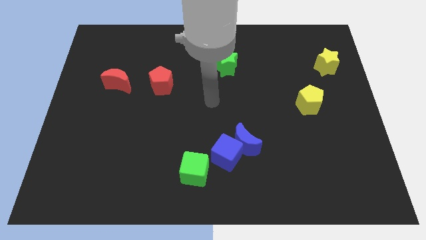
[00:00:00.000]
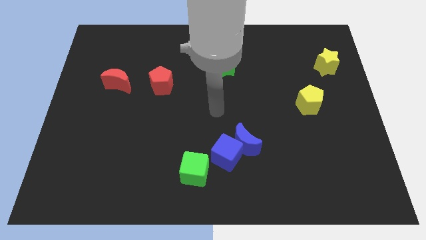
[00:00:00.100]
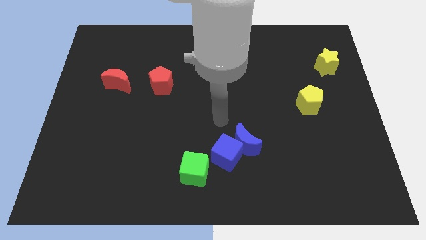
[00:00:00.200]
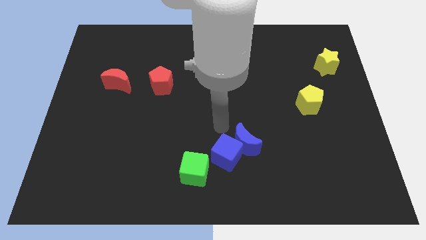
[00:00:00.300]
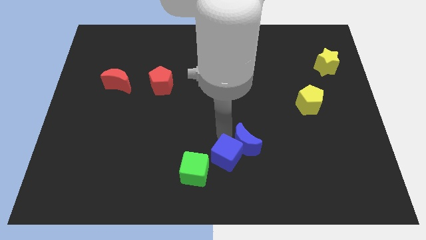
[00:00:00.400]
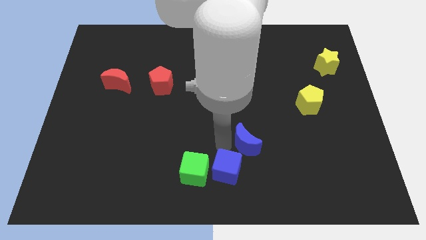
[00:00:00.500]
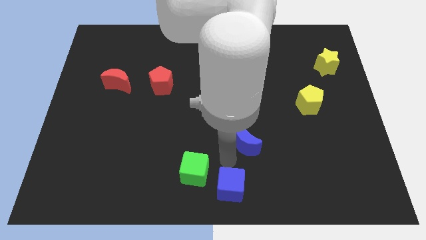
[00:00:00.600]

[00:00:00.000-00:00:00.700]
pull the blue moon apart from the blue cube

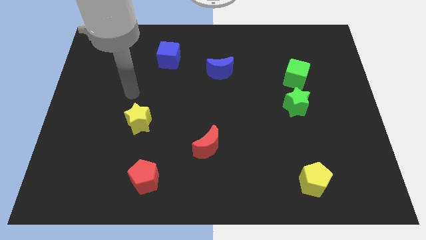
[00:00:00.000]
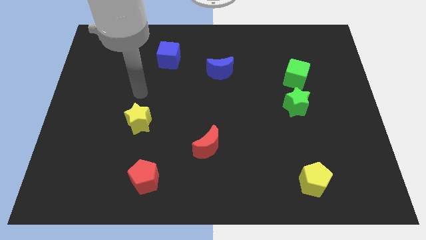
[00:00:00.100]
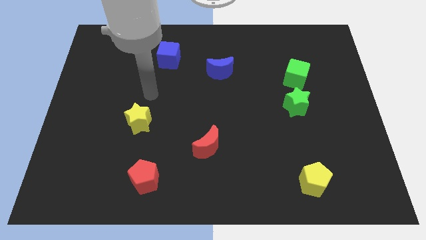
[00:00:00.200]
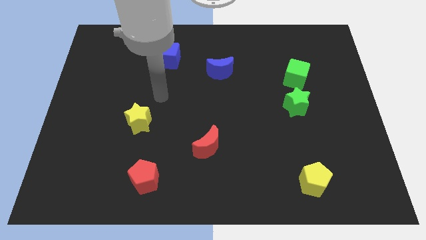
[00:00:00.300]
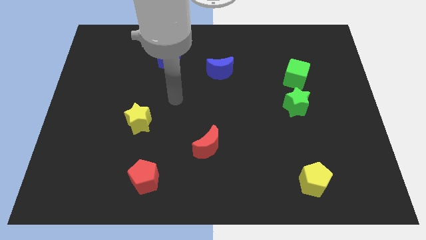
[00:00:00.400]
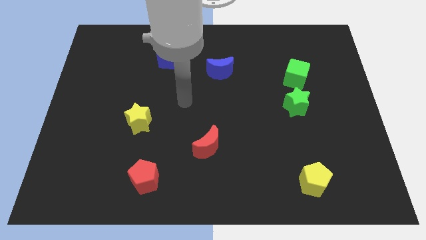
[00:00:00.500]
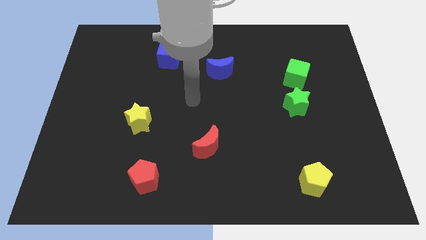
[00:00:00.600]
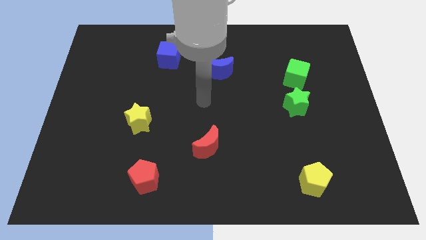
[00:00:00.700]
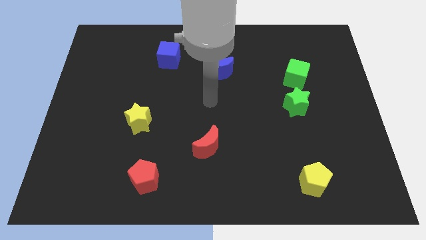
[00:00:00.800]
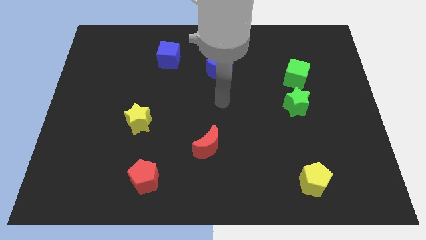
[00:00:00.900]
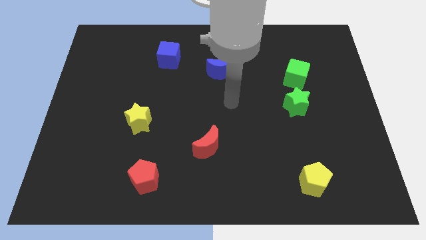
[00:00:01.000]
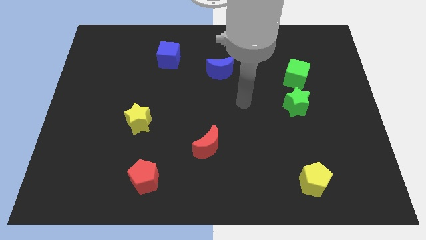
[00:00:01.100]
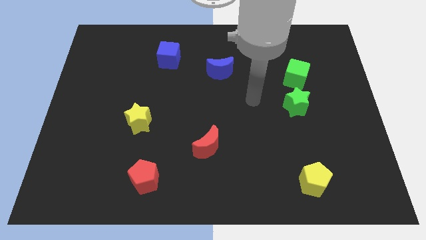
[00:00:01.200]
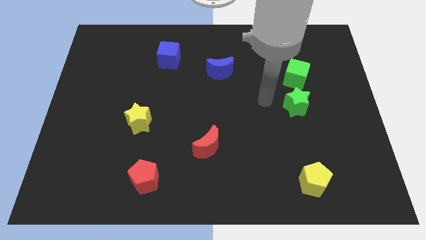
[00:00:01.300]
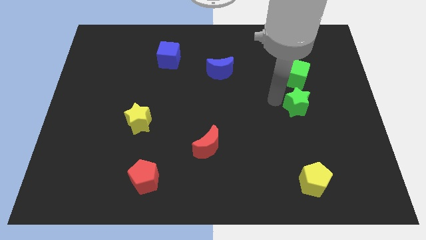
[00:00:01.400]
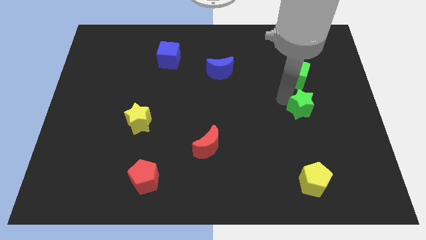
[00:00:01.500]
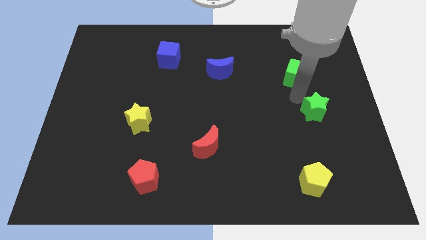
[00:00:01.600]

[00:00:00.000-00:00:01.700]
move the green cube away from the green star

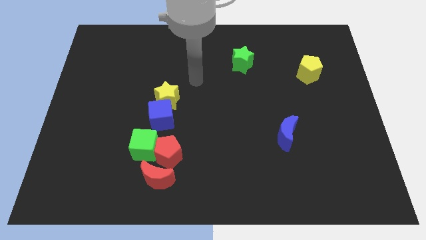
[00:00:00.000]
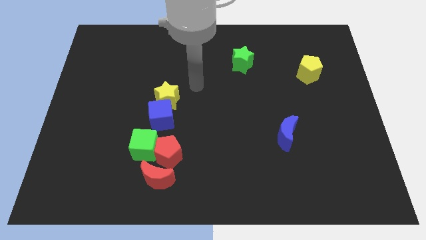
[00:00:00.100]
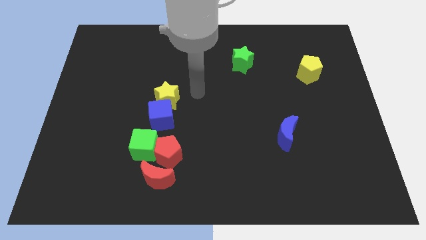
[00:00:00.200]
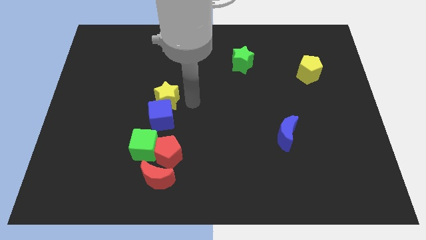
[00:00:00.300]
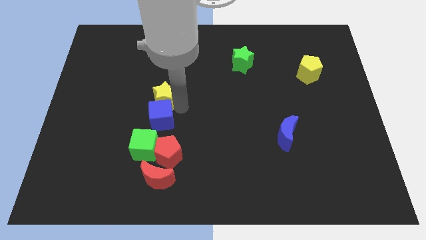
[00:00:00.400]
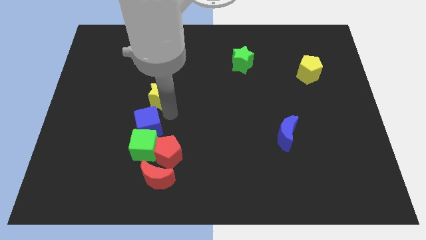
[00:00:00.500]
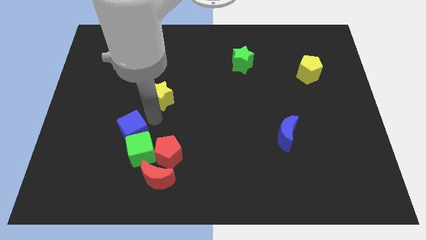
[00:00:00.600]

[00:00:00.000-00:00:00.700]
pull the yellow star apart from the blue cube

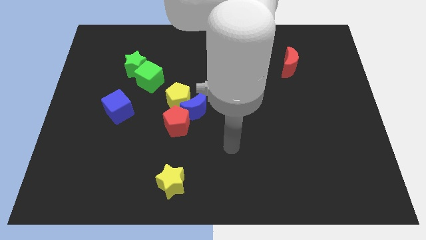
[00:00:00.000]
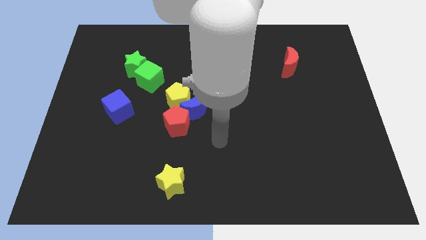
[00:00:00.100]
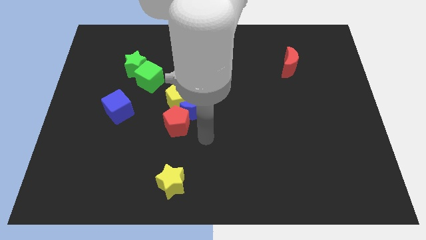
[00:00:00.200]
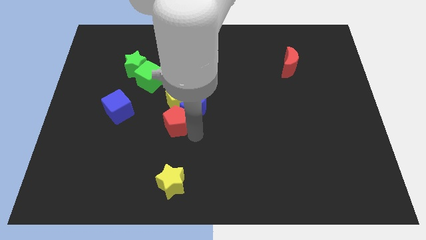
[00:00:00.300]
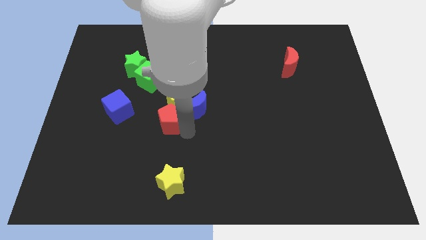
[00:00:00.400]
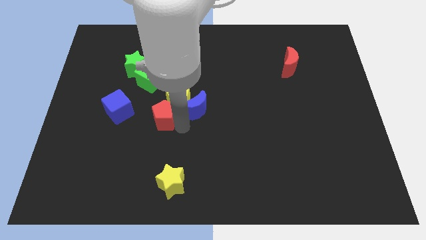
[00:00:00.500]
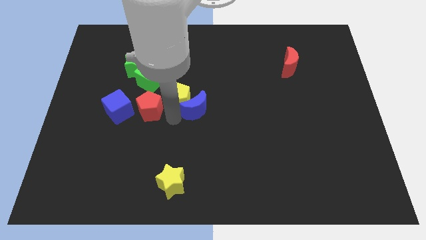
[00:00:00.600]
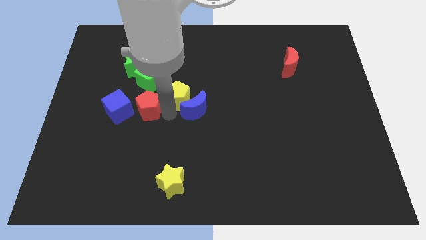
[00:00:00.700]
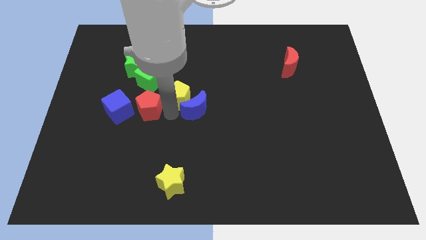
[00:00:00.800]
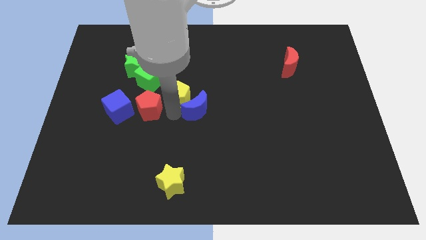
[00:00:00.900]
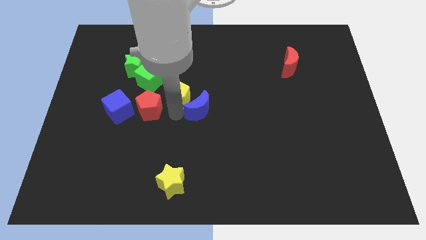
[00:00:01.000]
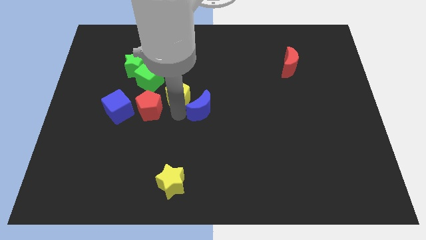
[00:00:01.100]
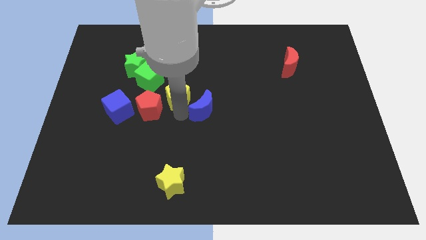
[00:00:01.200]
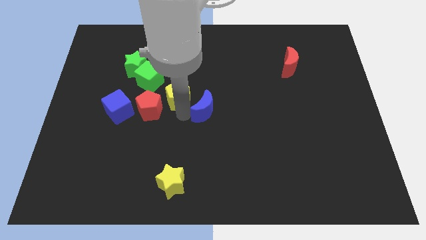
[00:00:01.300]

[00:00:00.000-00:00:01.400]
separate the blue moon from the yellow pentagon and red pentagon

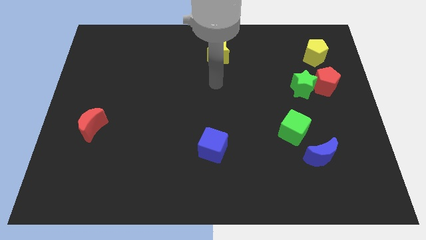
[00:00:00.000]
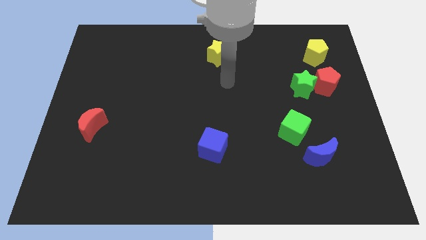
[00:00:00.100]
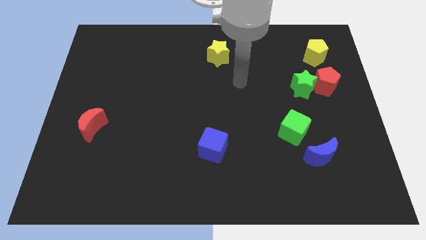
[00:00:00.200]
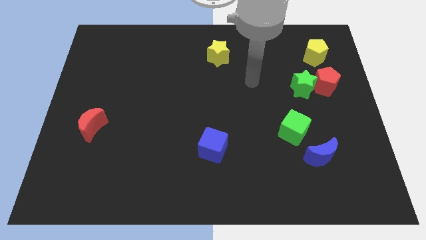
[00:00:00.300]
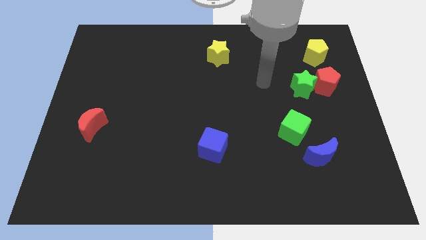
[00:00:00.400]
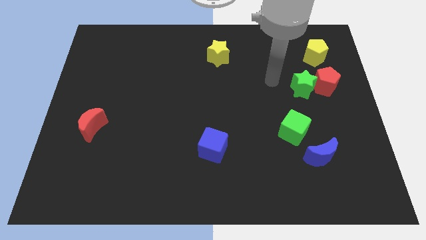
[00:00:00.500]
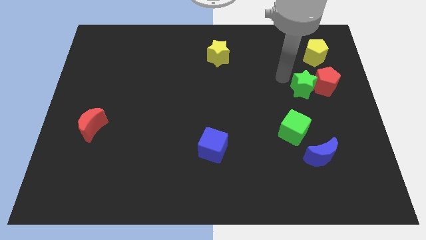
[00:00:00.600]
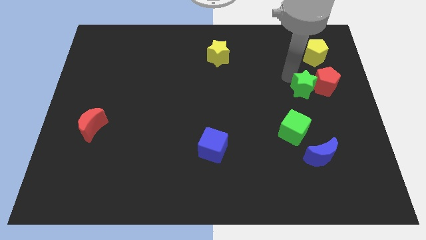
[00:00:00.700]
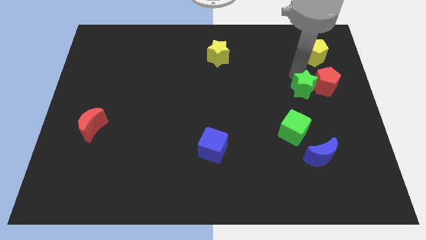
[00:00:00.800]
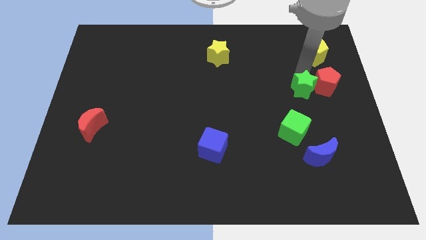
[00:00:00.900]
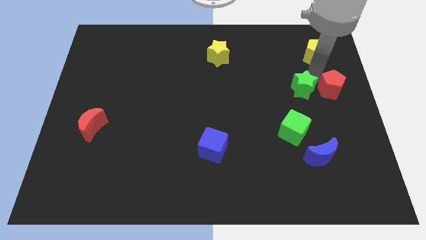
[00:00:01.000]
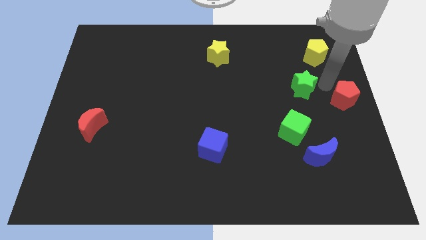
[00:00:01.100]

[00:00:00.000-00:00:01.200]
separate the green star from the red pentagon

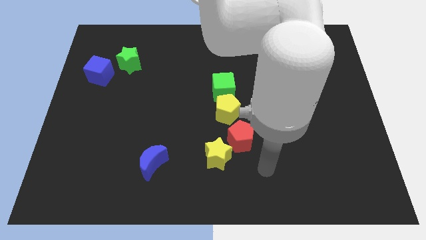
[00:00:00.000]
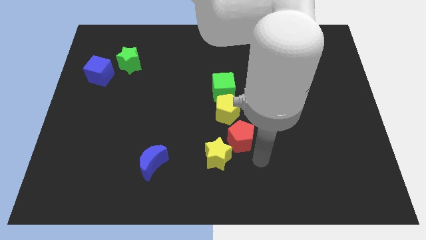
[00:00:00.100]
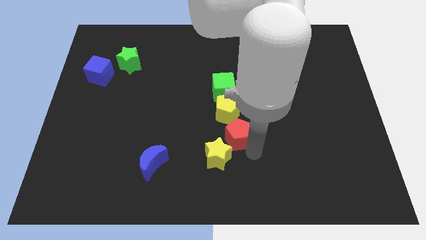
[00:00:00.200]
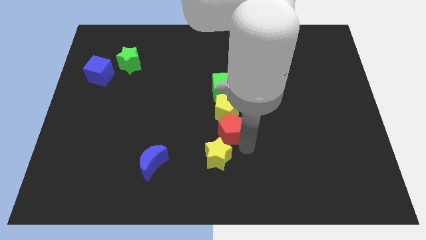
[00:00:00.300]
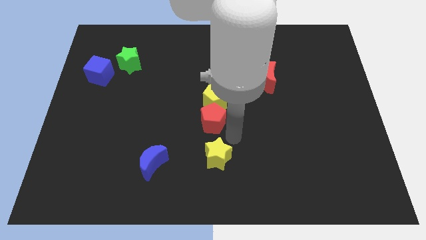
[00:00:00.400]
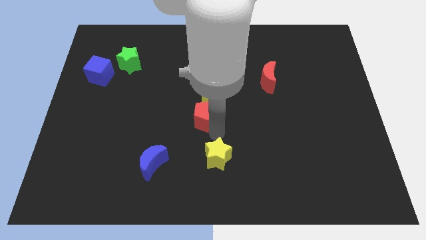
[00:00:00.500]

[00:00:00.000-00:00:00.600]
pull the yellow star apart from the red pentagon

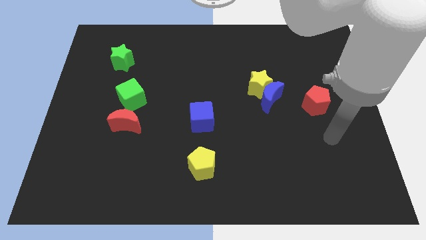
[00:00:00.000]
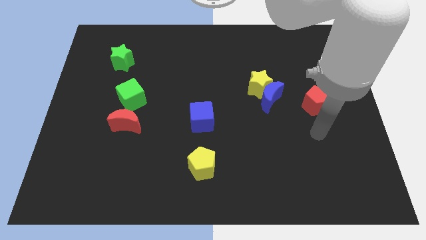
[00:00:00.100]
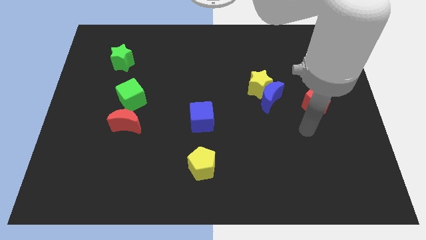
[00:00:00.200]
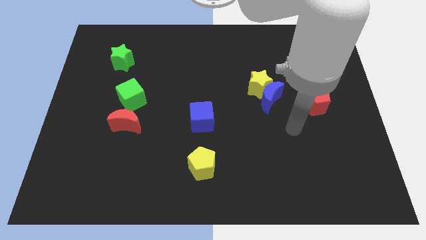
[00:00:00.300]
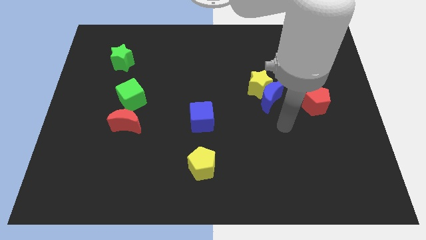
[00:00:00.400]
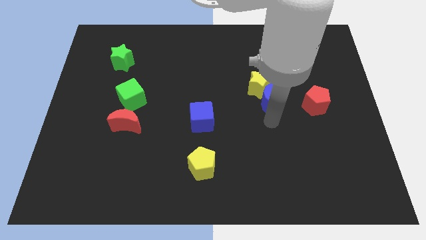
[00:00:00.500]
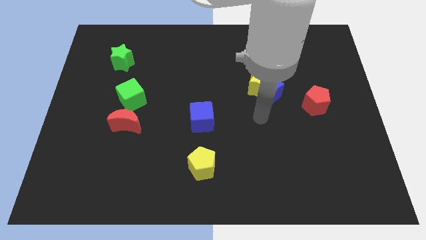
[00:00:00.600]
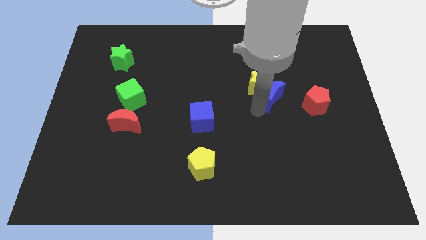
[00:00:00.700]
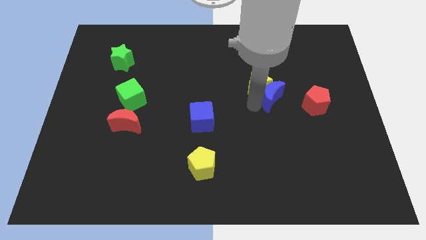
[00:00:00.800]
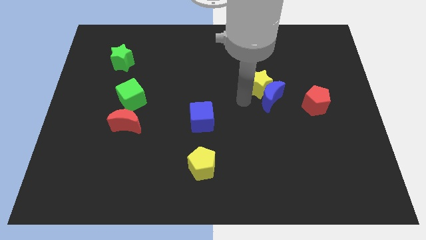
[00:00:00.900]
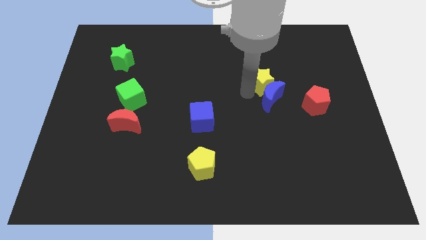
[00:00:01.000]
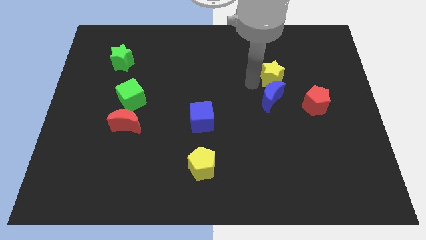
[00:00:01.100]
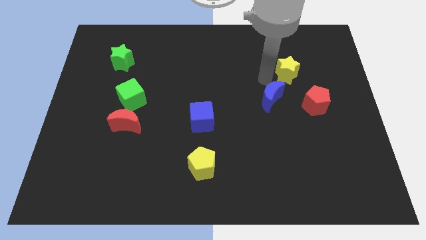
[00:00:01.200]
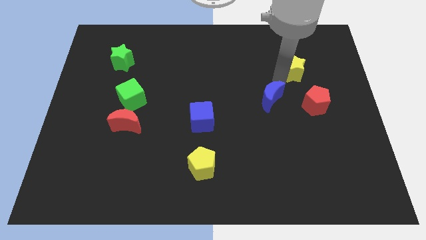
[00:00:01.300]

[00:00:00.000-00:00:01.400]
pull the blue moon apart from the yellow star

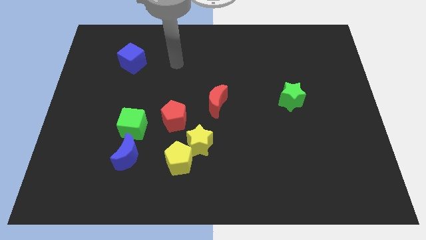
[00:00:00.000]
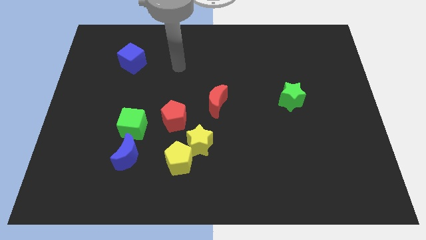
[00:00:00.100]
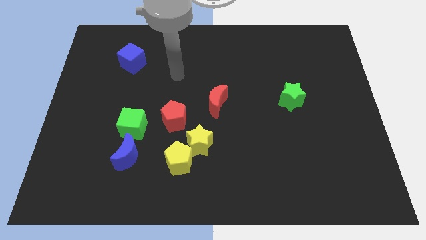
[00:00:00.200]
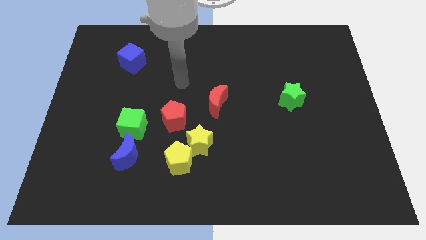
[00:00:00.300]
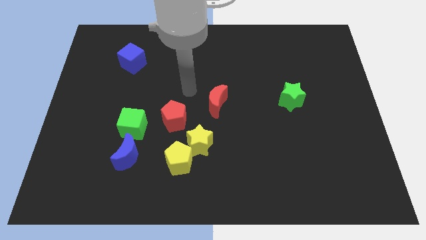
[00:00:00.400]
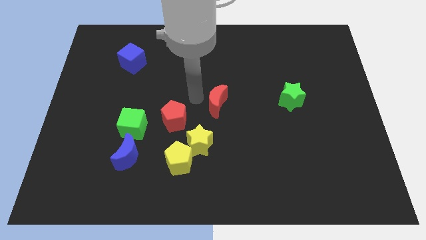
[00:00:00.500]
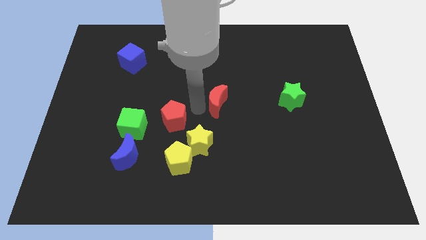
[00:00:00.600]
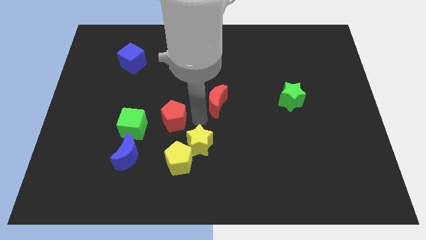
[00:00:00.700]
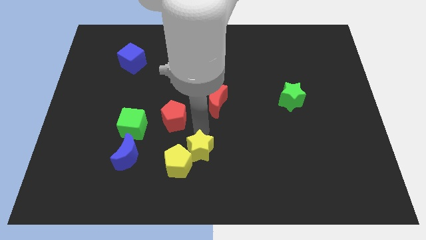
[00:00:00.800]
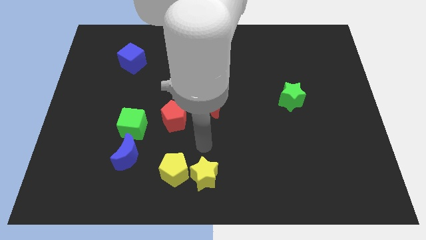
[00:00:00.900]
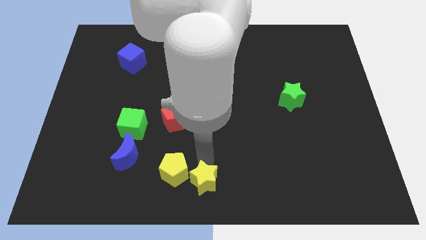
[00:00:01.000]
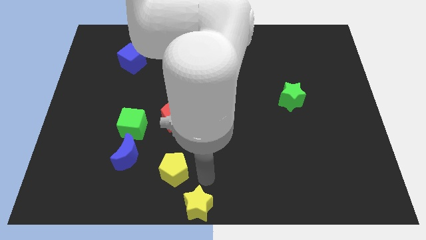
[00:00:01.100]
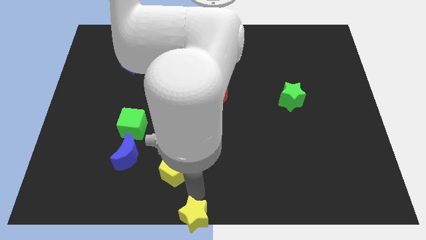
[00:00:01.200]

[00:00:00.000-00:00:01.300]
pull the yellow pentagon apart from the yellow star

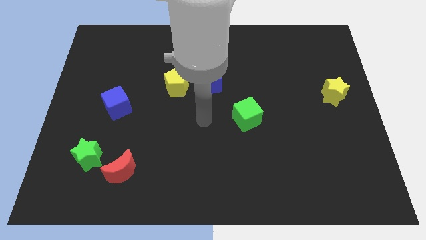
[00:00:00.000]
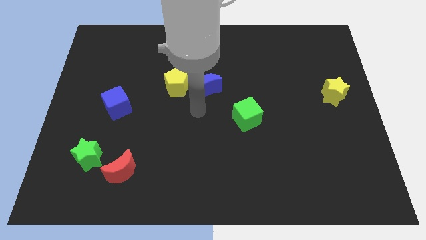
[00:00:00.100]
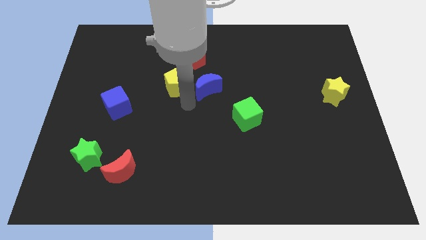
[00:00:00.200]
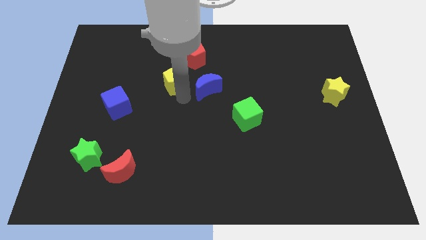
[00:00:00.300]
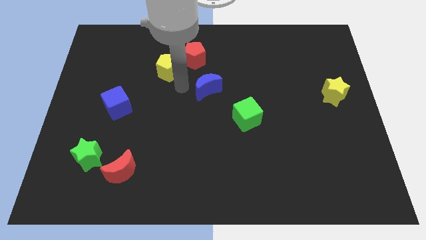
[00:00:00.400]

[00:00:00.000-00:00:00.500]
separate the blue moon from the yellow pentagon
